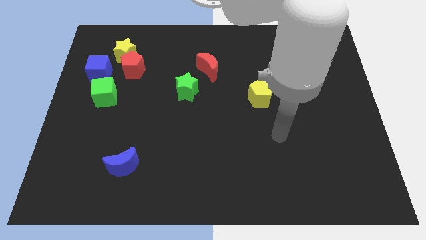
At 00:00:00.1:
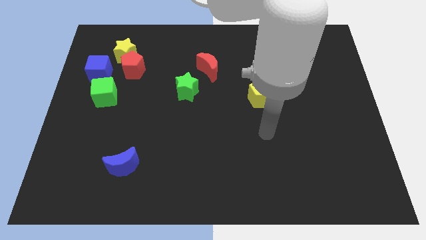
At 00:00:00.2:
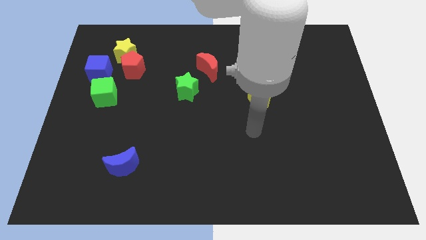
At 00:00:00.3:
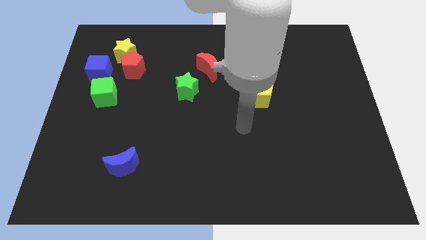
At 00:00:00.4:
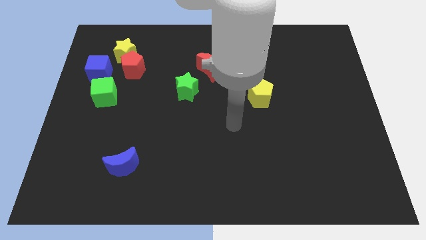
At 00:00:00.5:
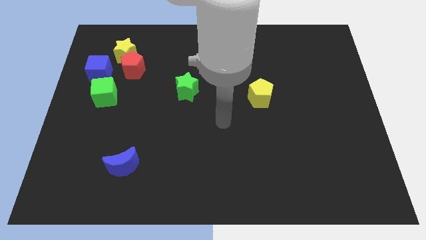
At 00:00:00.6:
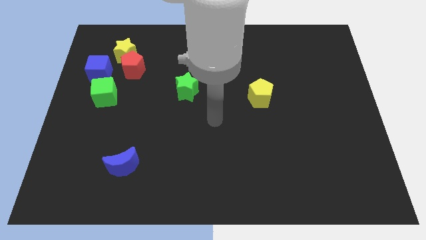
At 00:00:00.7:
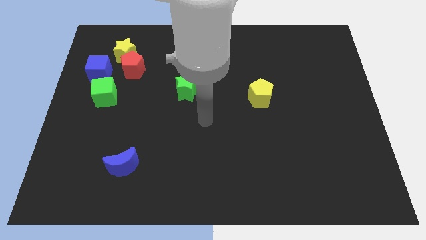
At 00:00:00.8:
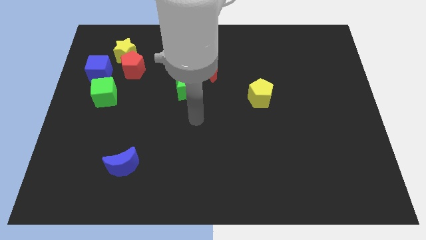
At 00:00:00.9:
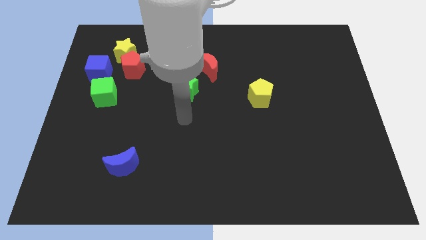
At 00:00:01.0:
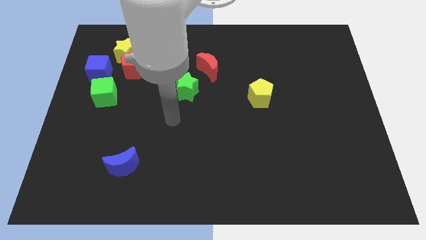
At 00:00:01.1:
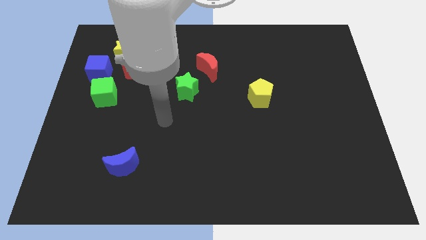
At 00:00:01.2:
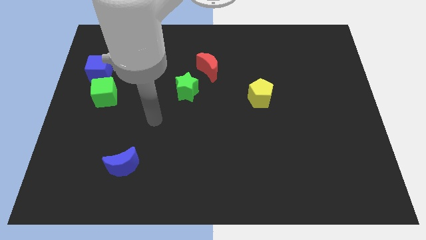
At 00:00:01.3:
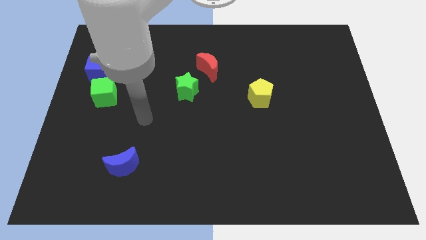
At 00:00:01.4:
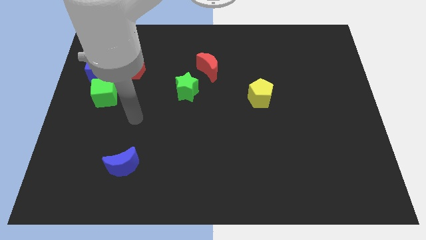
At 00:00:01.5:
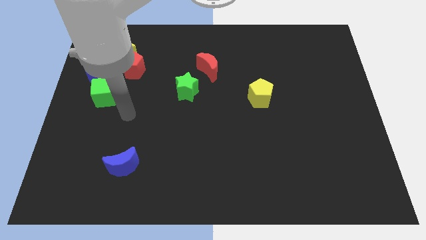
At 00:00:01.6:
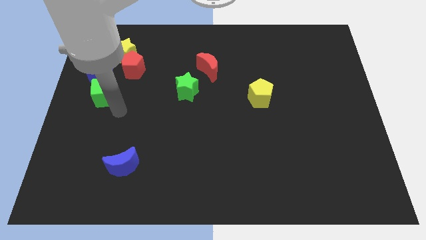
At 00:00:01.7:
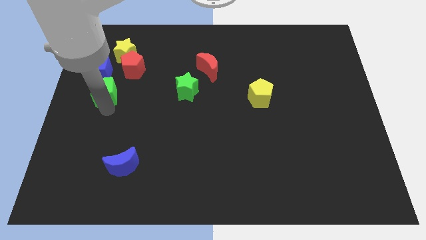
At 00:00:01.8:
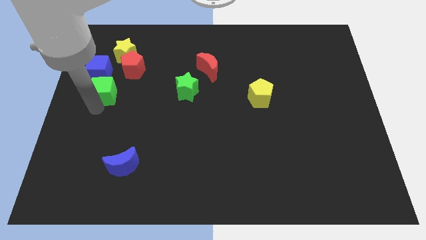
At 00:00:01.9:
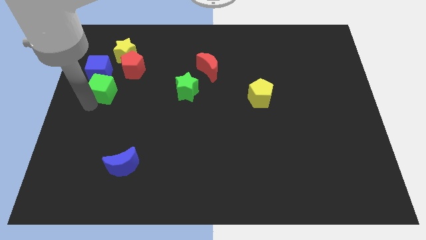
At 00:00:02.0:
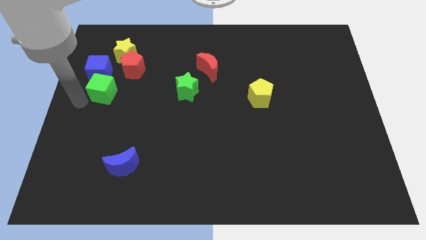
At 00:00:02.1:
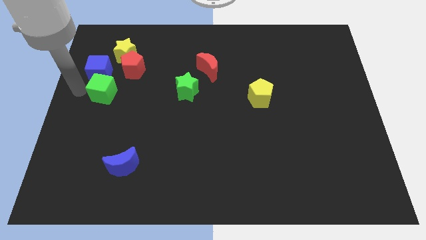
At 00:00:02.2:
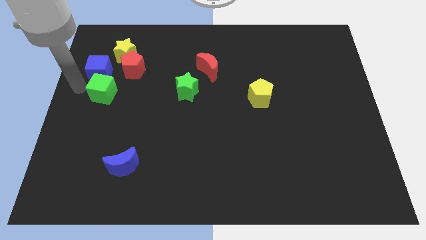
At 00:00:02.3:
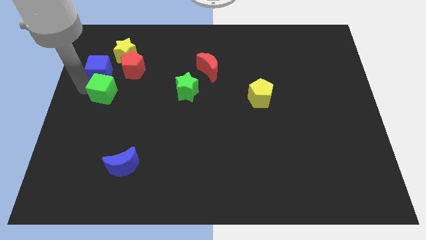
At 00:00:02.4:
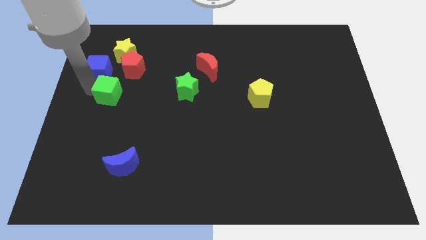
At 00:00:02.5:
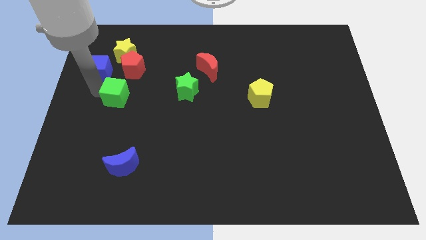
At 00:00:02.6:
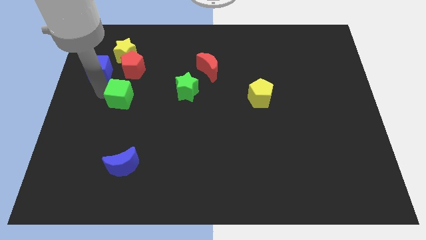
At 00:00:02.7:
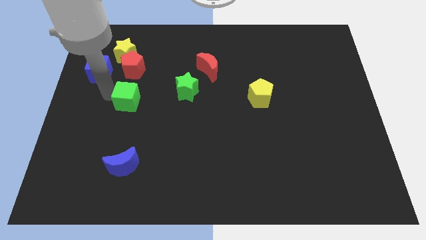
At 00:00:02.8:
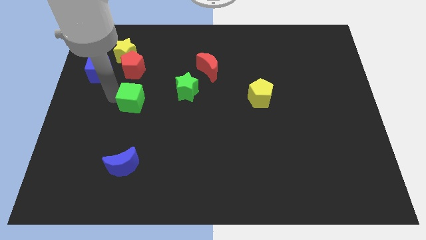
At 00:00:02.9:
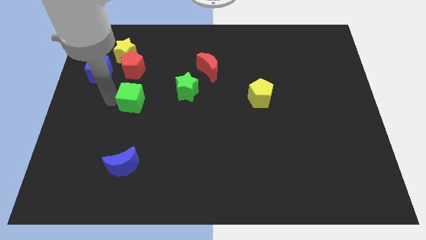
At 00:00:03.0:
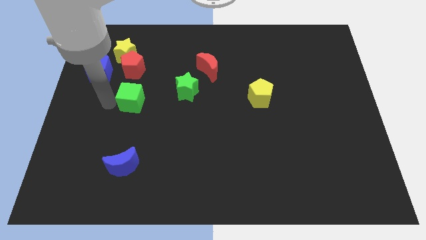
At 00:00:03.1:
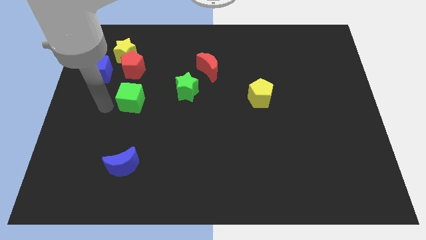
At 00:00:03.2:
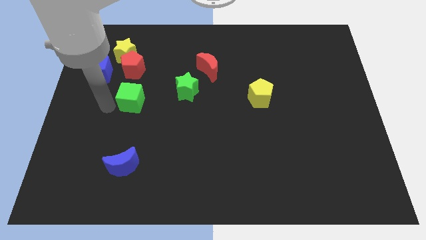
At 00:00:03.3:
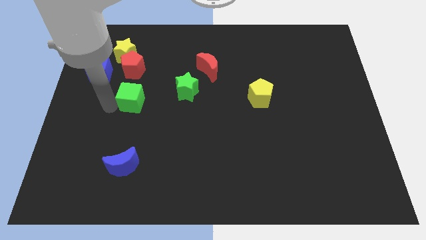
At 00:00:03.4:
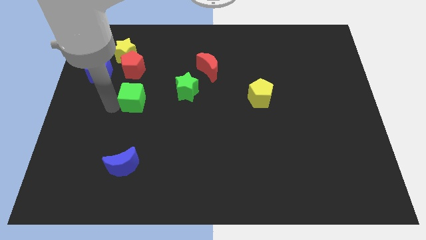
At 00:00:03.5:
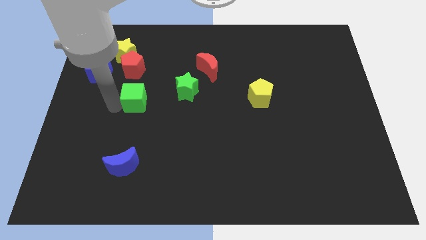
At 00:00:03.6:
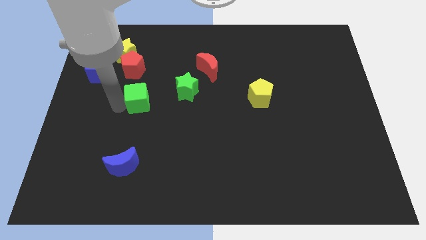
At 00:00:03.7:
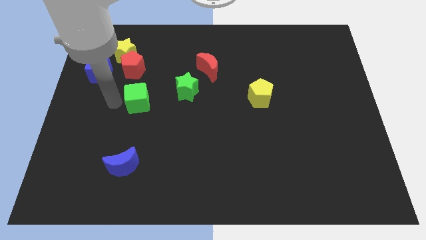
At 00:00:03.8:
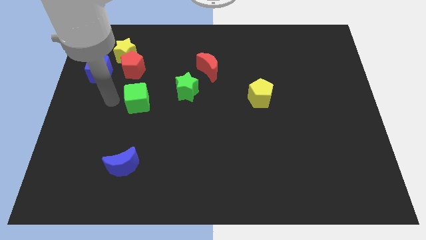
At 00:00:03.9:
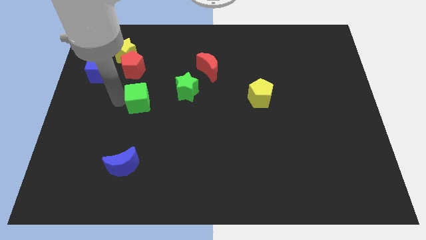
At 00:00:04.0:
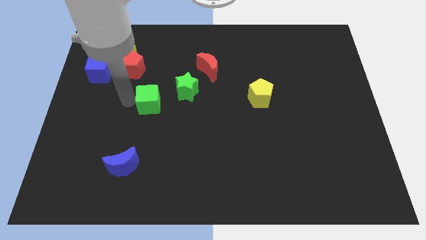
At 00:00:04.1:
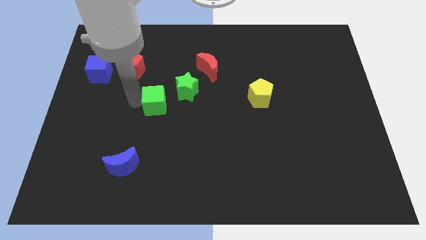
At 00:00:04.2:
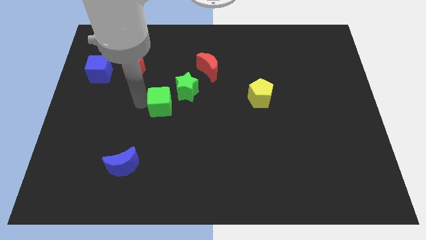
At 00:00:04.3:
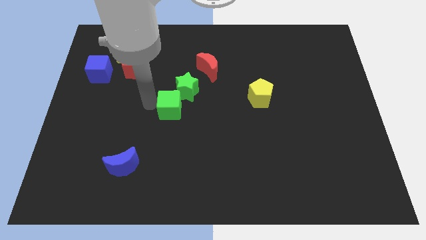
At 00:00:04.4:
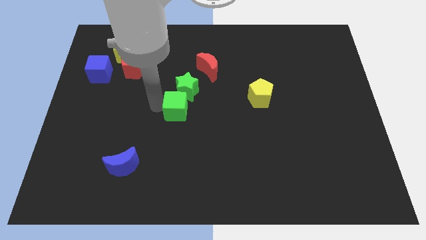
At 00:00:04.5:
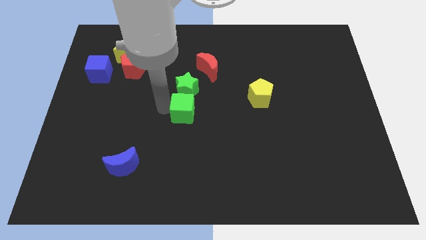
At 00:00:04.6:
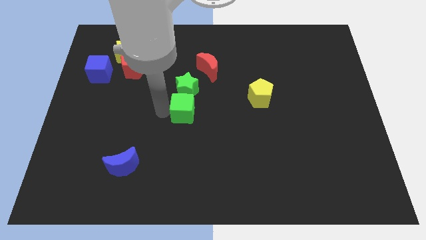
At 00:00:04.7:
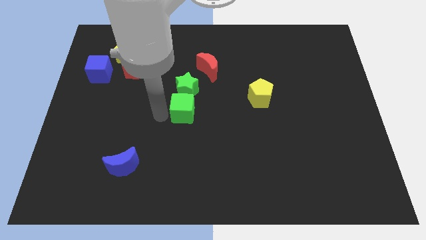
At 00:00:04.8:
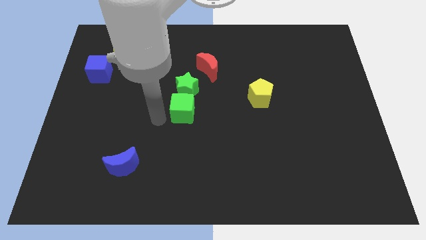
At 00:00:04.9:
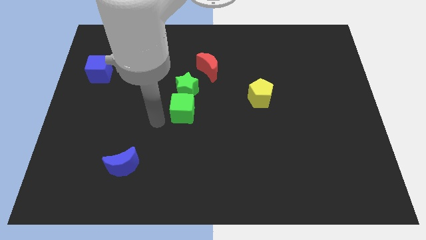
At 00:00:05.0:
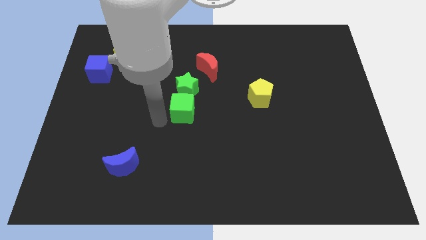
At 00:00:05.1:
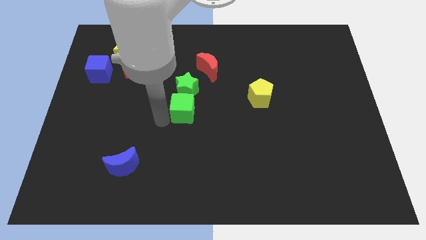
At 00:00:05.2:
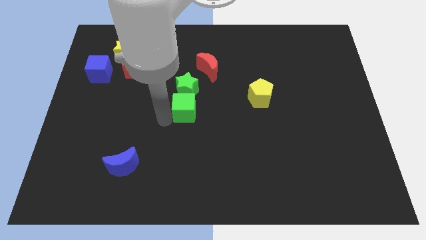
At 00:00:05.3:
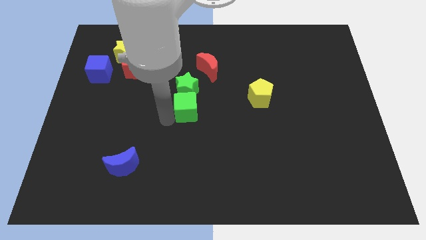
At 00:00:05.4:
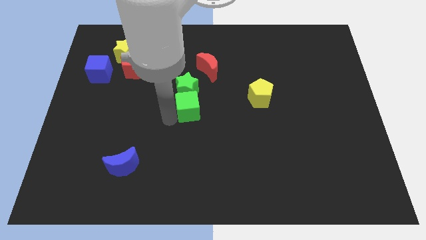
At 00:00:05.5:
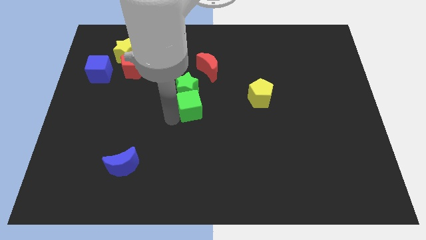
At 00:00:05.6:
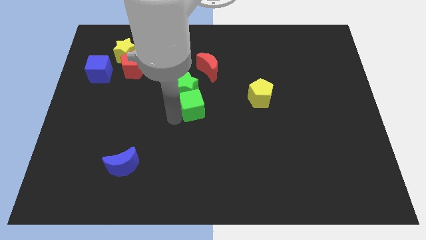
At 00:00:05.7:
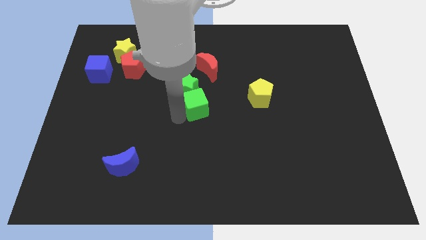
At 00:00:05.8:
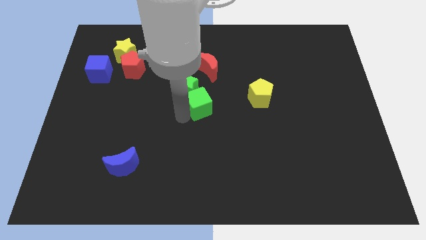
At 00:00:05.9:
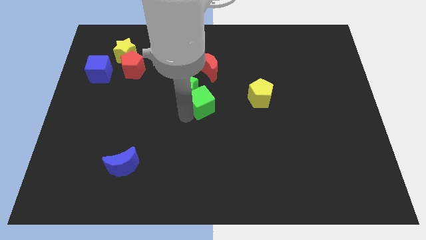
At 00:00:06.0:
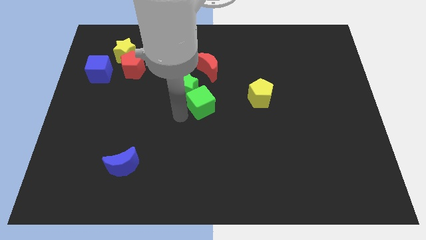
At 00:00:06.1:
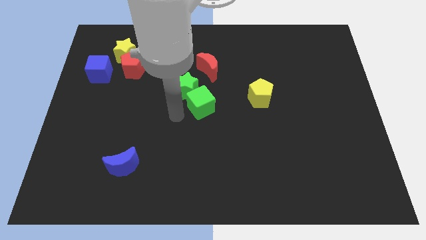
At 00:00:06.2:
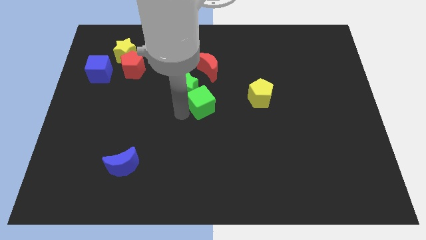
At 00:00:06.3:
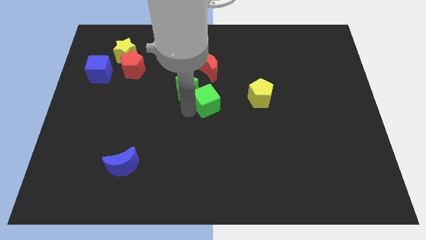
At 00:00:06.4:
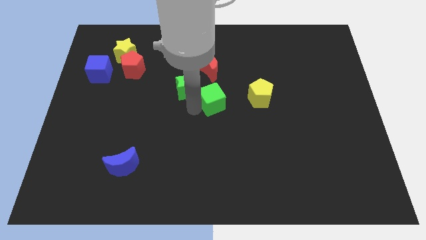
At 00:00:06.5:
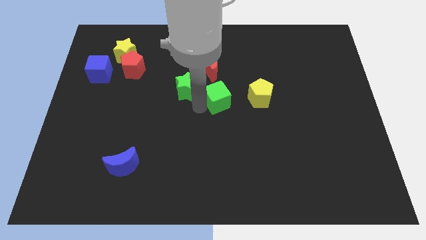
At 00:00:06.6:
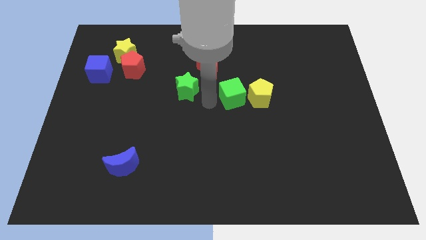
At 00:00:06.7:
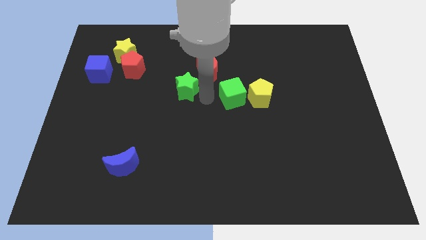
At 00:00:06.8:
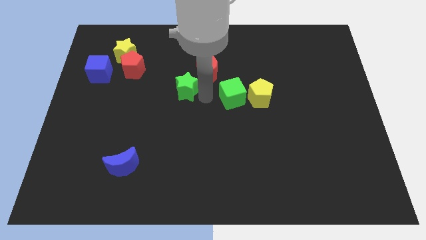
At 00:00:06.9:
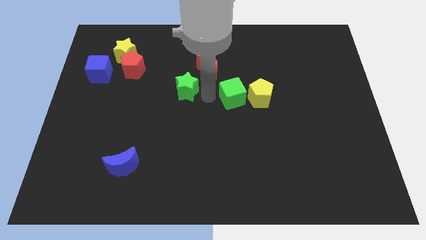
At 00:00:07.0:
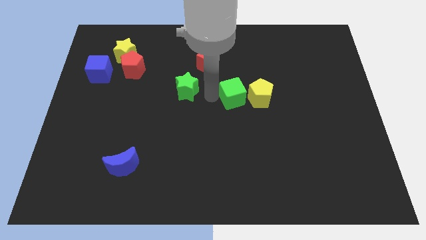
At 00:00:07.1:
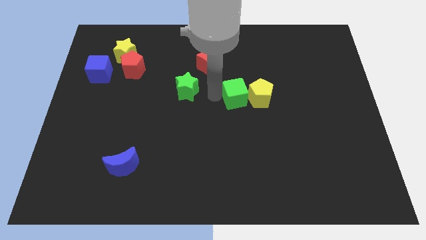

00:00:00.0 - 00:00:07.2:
push the green cube to the yellow pentagon
